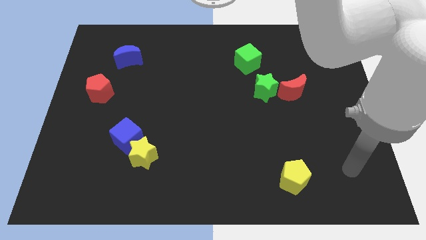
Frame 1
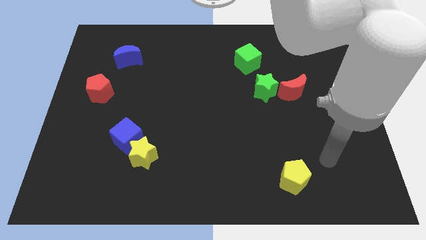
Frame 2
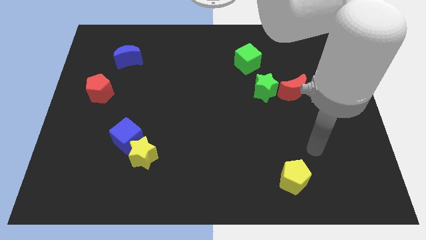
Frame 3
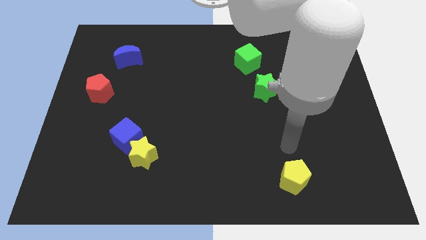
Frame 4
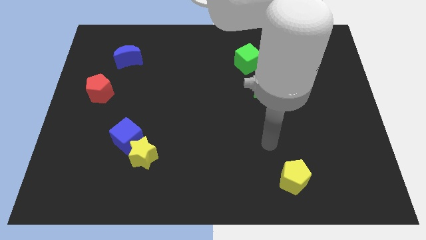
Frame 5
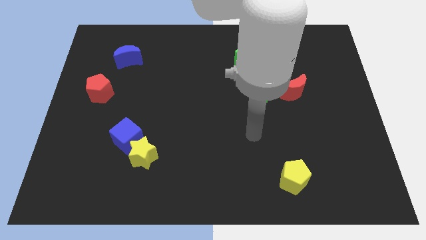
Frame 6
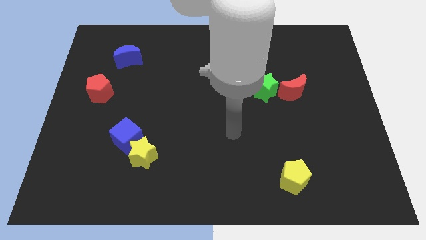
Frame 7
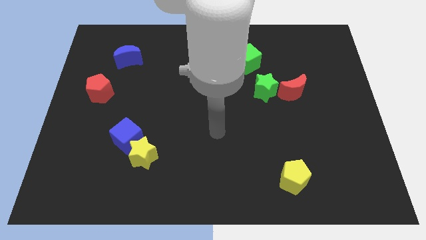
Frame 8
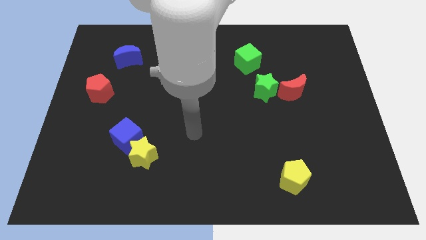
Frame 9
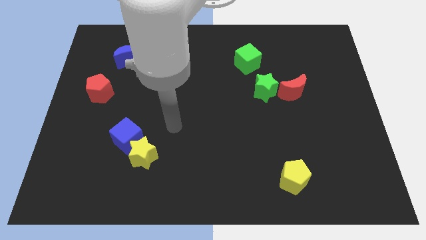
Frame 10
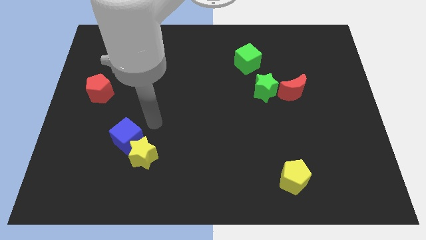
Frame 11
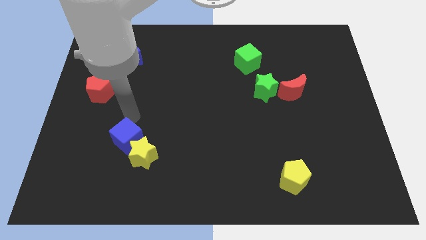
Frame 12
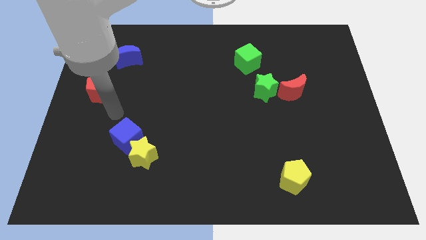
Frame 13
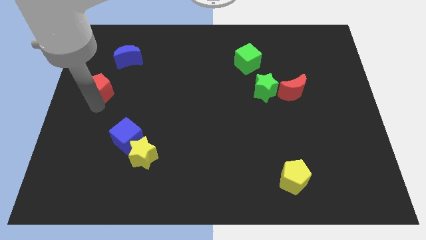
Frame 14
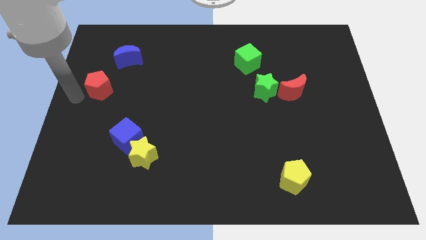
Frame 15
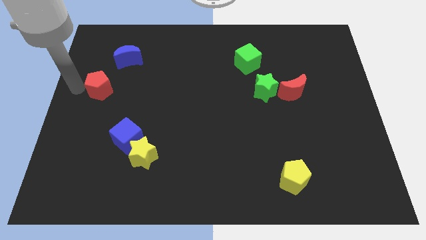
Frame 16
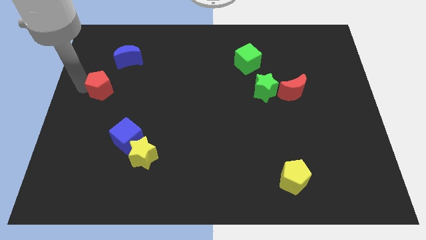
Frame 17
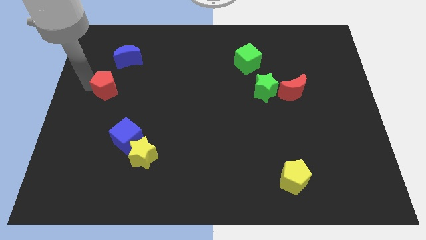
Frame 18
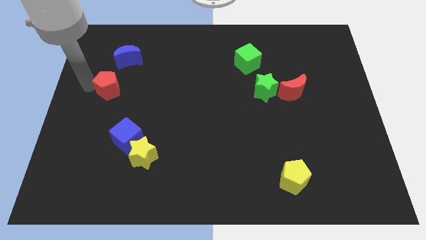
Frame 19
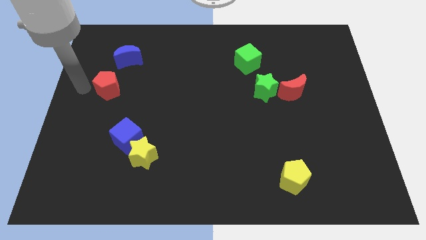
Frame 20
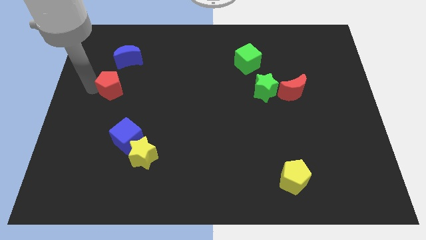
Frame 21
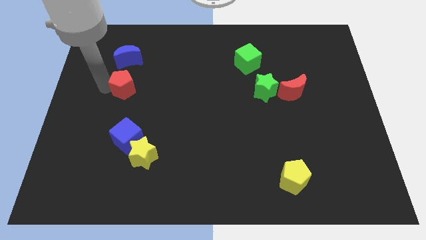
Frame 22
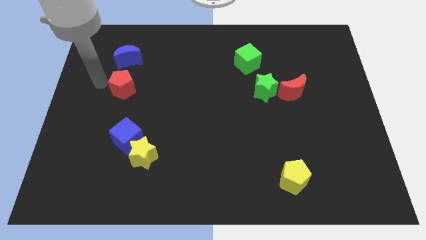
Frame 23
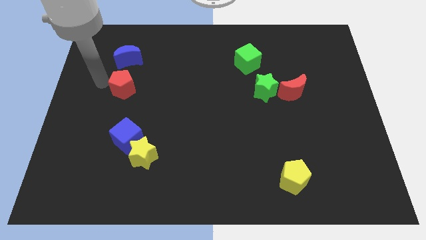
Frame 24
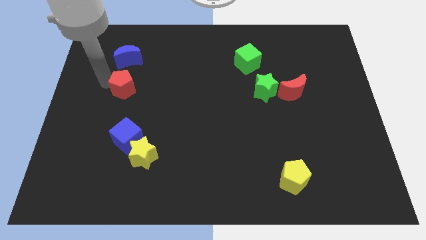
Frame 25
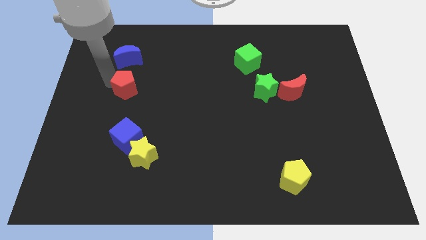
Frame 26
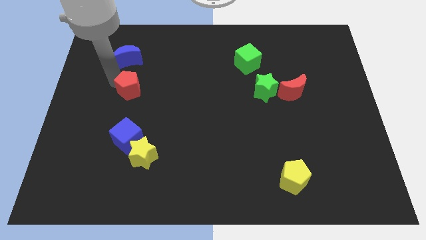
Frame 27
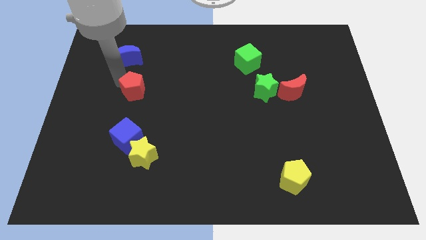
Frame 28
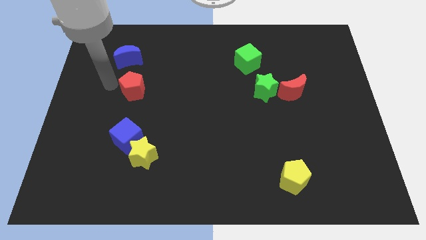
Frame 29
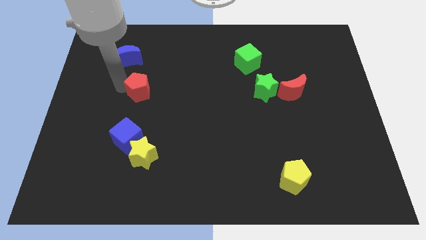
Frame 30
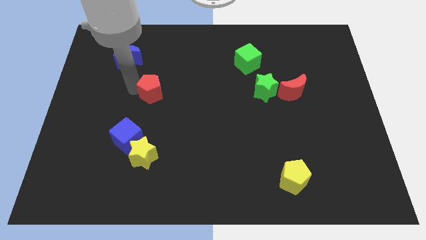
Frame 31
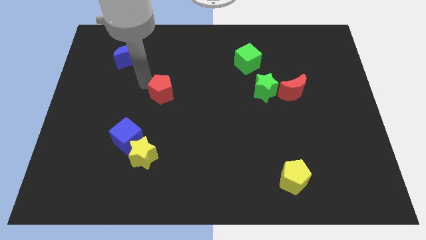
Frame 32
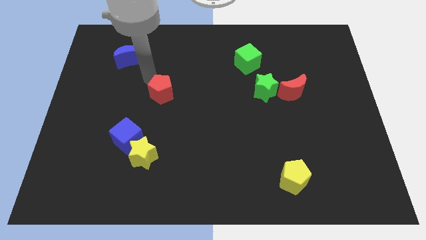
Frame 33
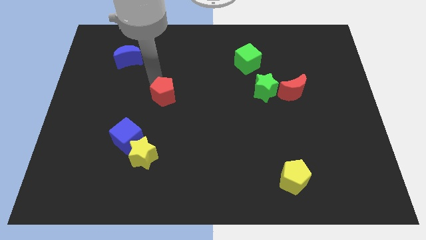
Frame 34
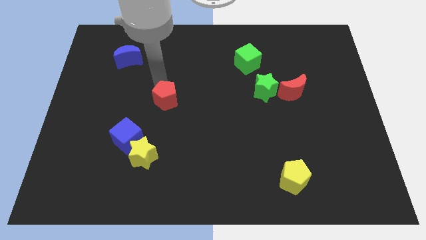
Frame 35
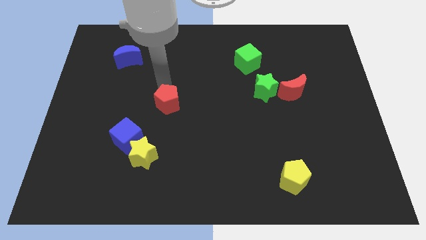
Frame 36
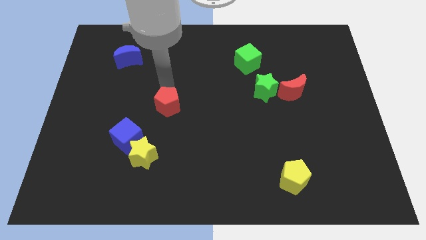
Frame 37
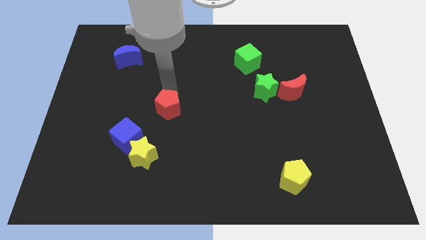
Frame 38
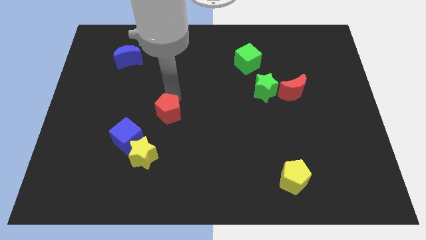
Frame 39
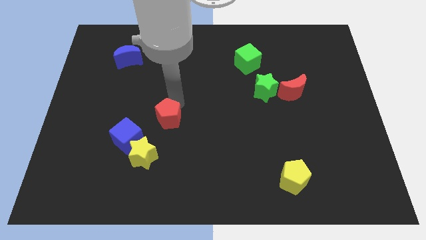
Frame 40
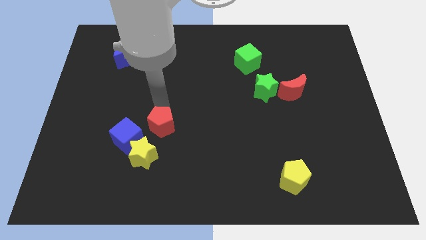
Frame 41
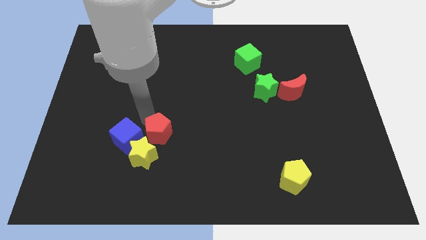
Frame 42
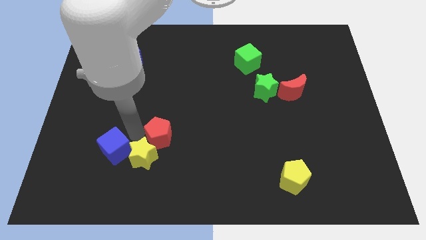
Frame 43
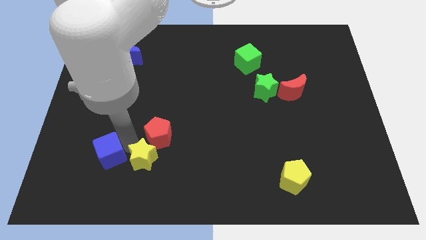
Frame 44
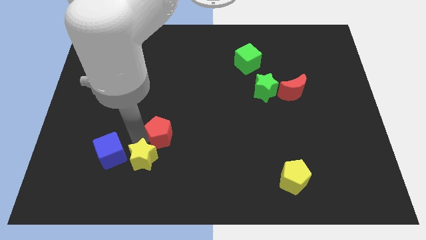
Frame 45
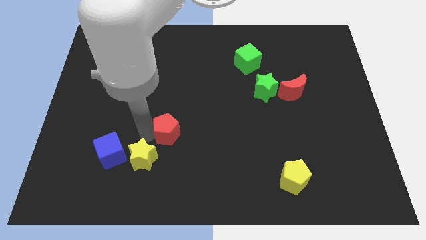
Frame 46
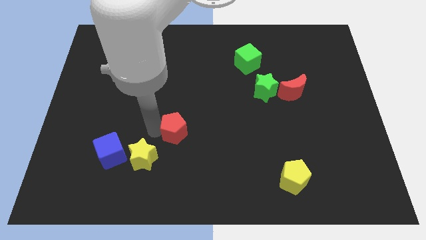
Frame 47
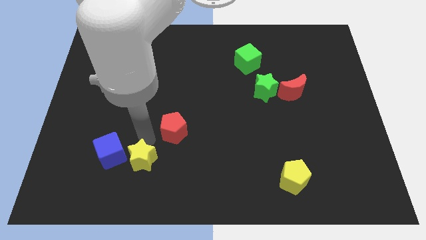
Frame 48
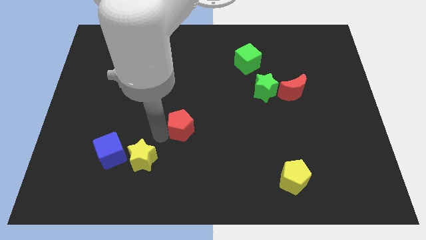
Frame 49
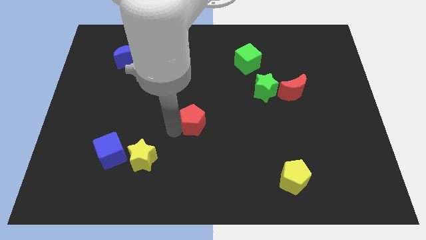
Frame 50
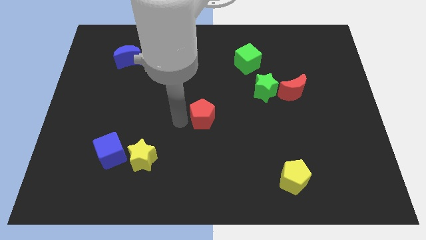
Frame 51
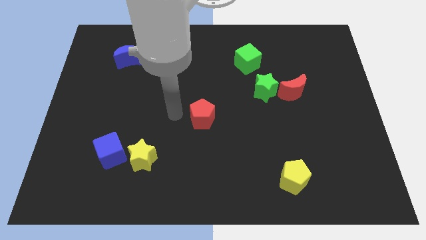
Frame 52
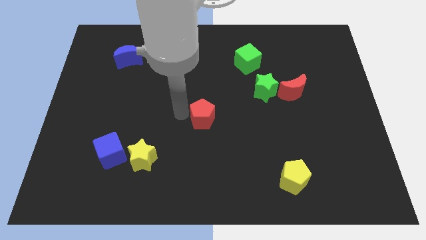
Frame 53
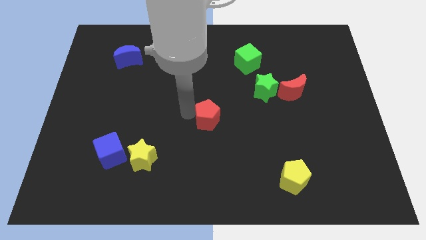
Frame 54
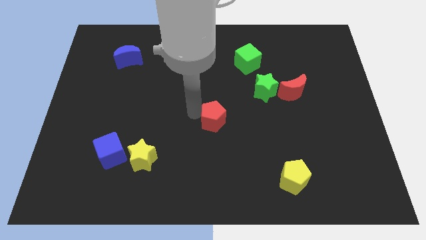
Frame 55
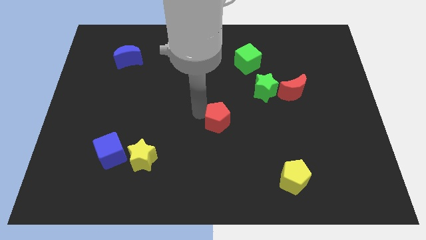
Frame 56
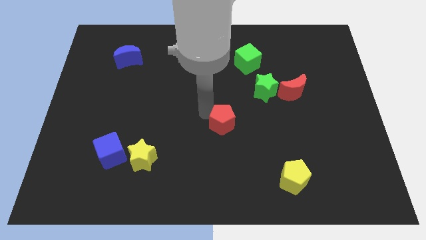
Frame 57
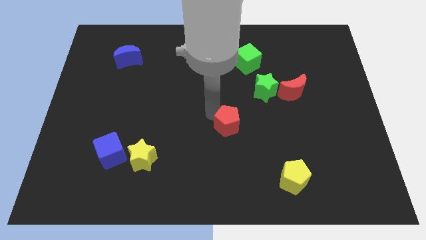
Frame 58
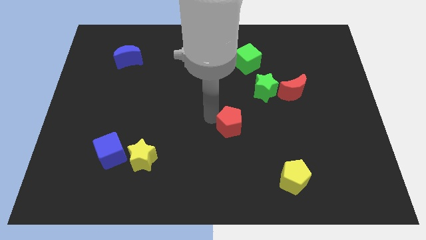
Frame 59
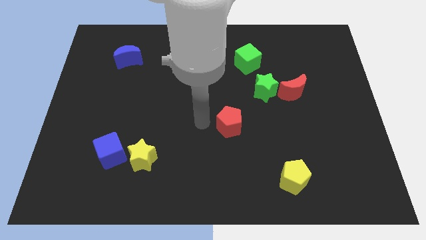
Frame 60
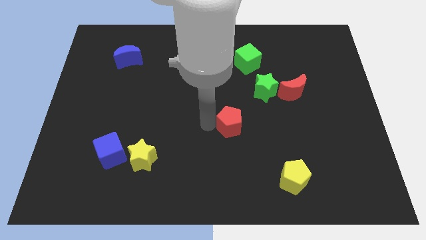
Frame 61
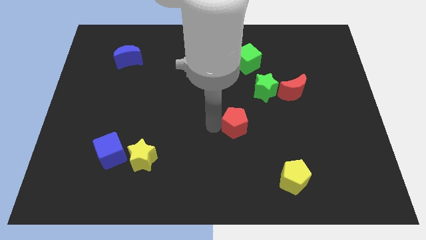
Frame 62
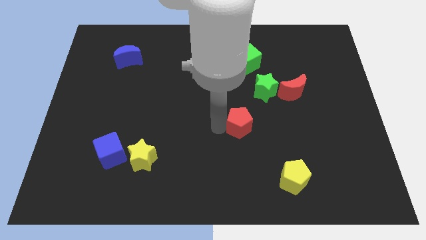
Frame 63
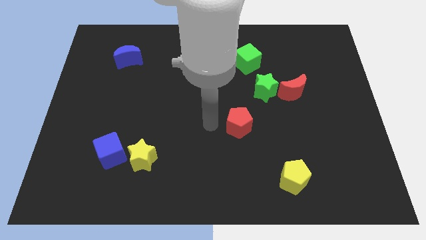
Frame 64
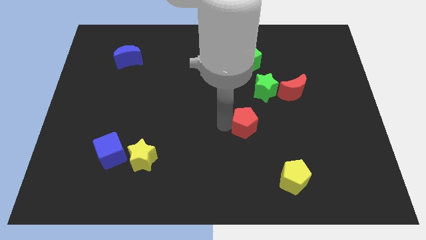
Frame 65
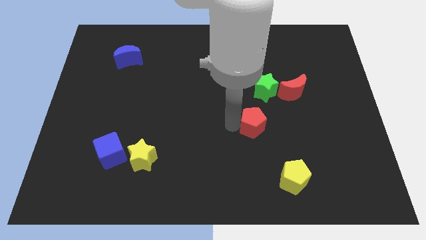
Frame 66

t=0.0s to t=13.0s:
put the red pentagon to the bottom of the green star

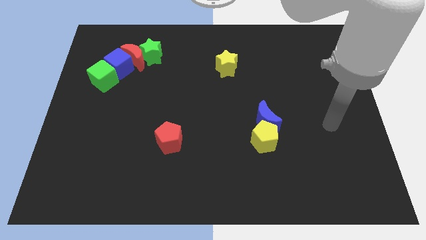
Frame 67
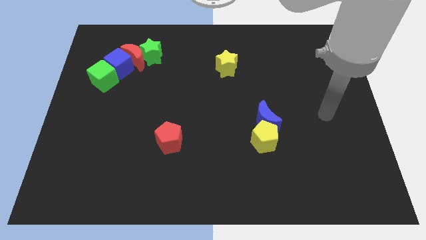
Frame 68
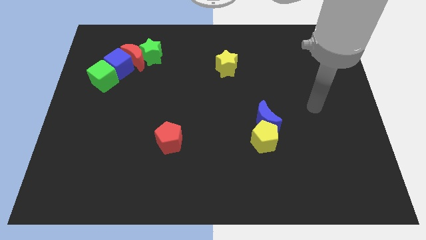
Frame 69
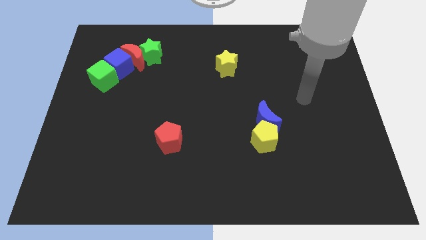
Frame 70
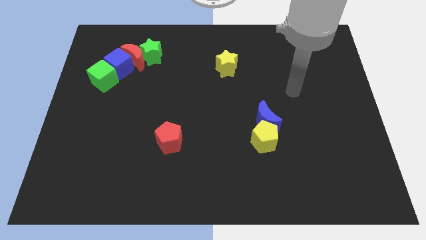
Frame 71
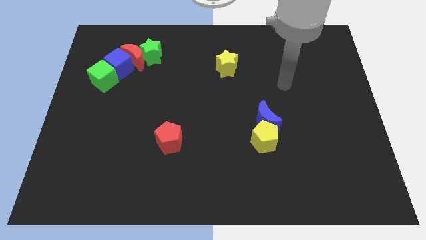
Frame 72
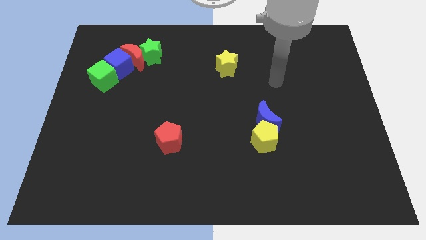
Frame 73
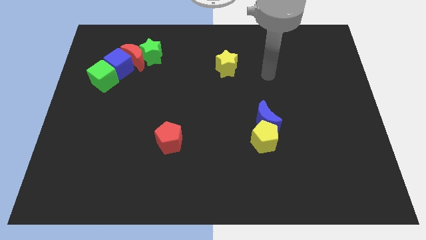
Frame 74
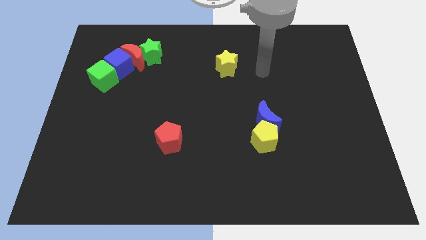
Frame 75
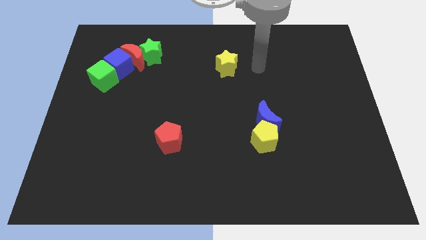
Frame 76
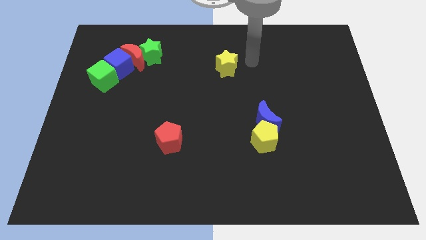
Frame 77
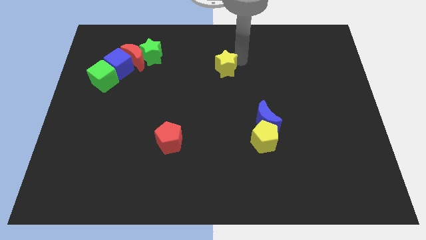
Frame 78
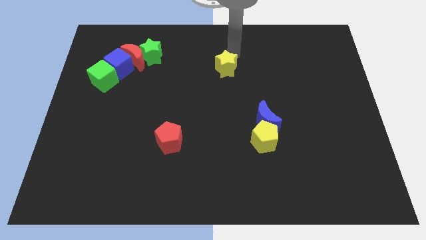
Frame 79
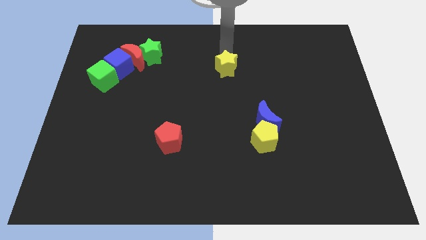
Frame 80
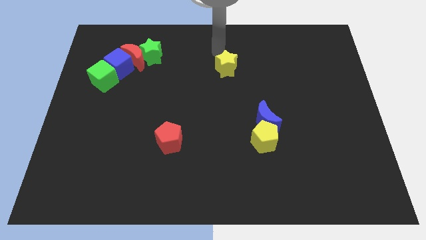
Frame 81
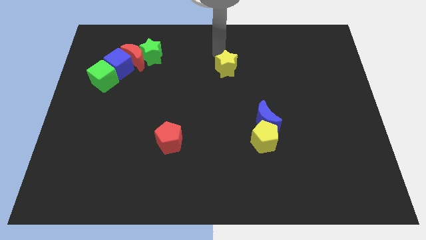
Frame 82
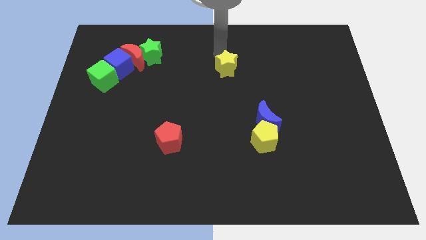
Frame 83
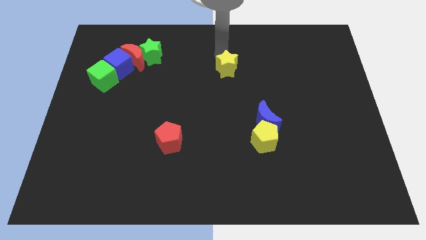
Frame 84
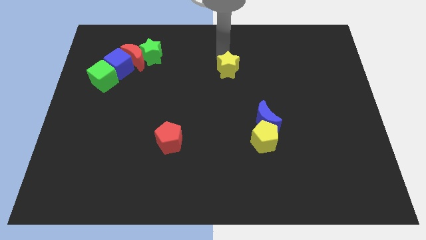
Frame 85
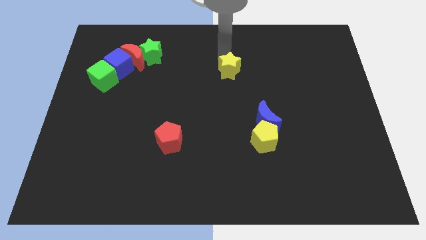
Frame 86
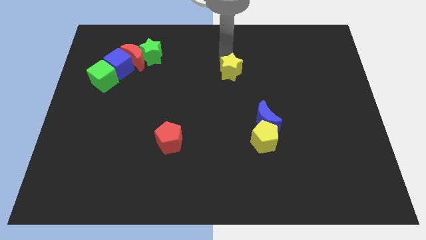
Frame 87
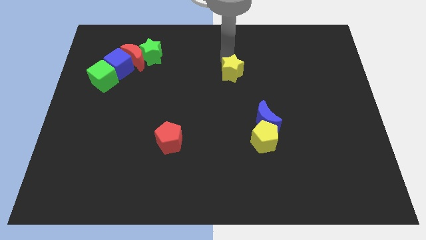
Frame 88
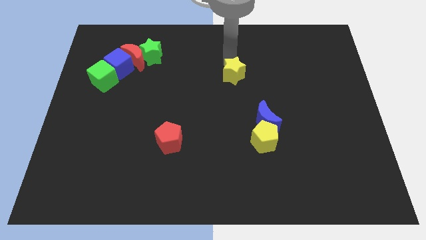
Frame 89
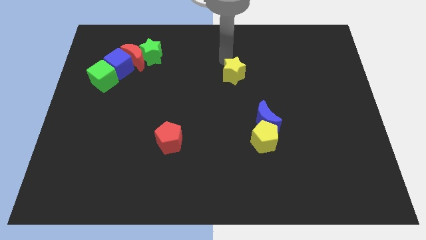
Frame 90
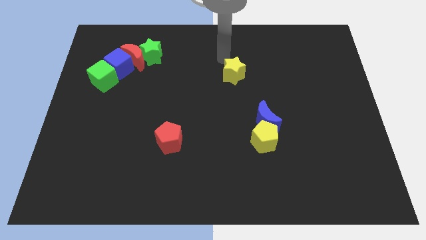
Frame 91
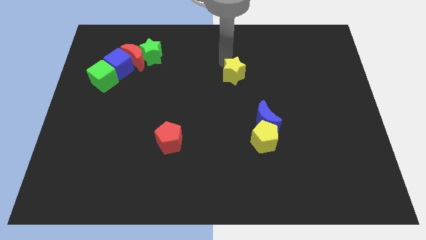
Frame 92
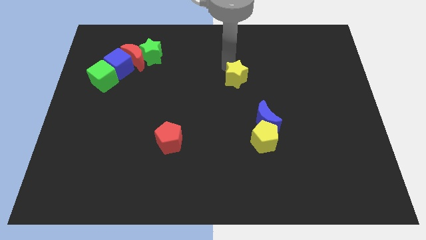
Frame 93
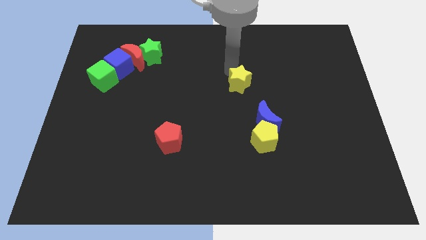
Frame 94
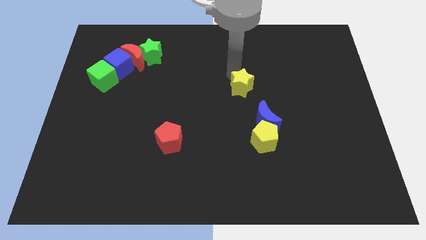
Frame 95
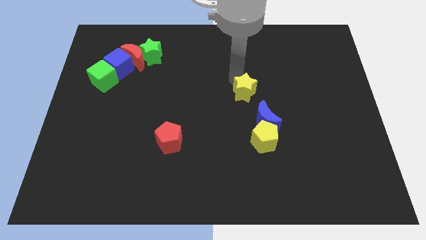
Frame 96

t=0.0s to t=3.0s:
move the yellow star to the top of the yellow pentagon
